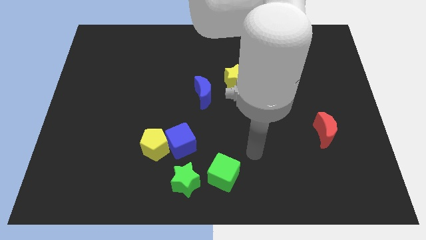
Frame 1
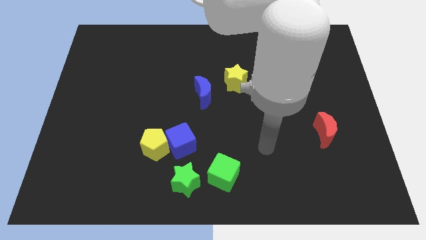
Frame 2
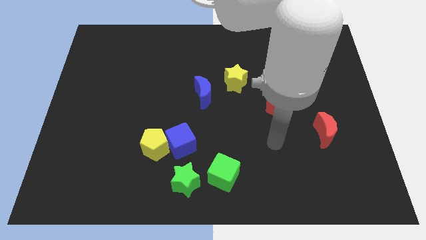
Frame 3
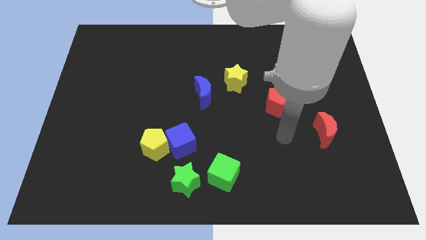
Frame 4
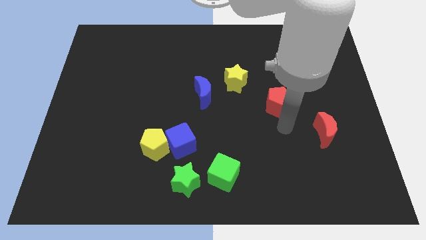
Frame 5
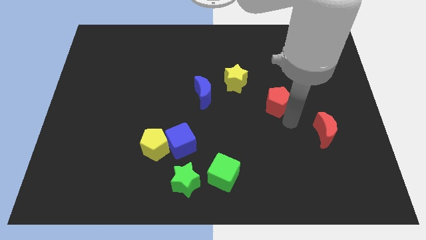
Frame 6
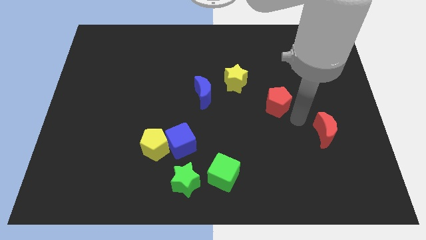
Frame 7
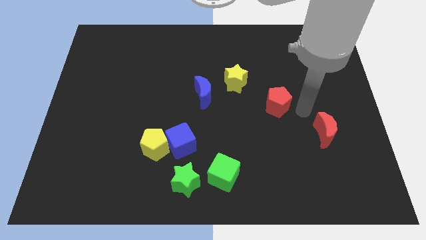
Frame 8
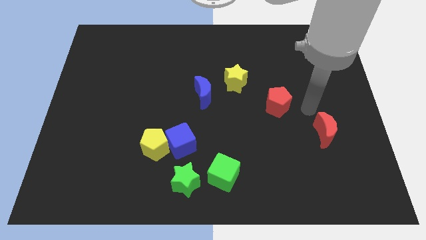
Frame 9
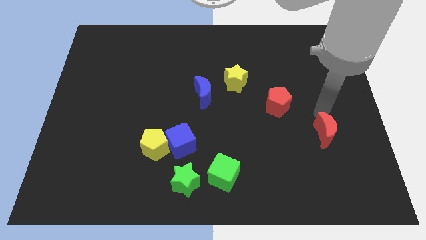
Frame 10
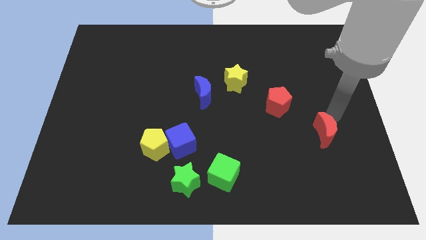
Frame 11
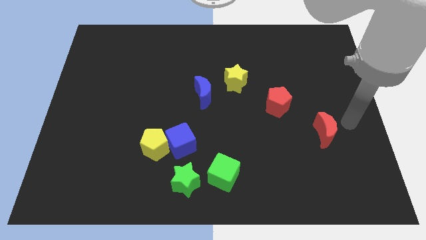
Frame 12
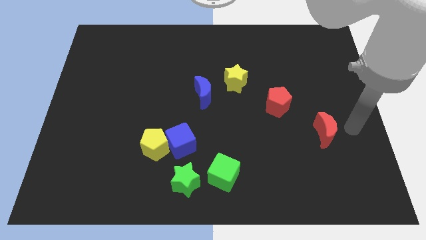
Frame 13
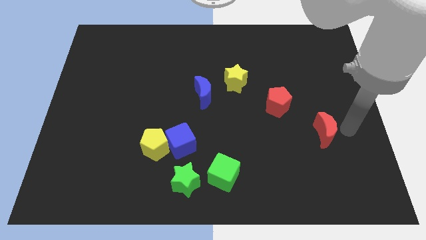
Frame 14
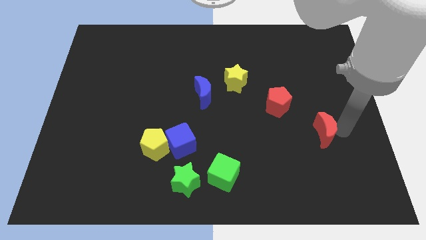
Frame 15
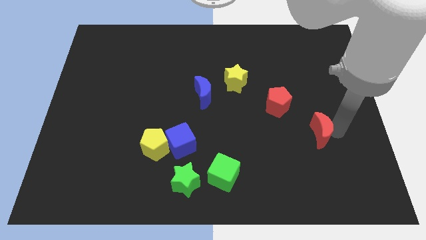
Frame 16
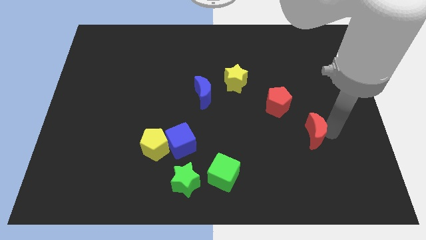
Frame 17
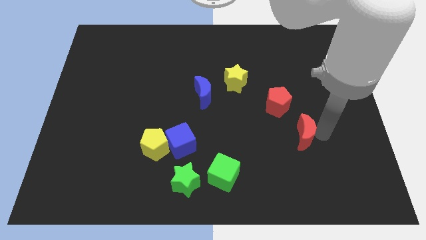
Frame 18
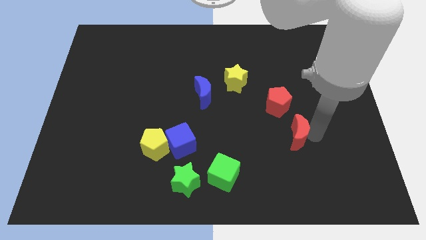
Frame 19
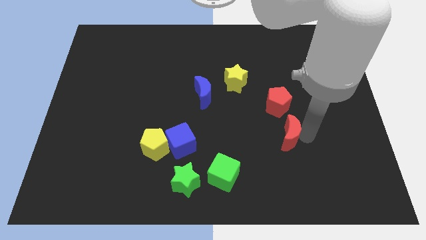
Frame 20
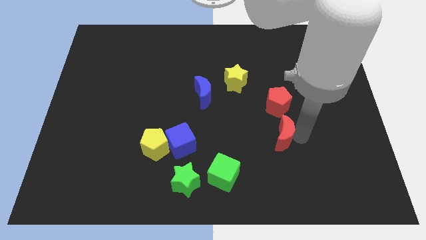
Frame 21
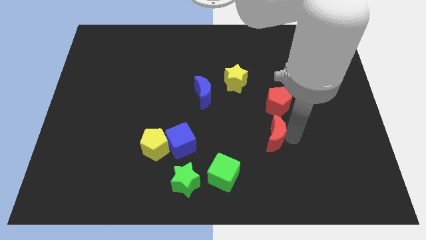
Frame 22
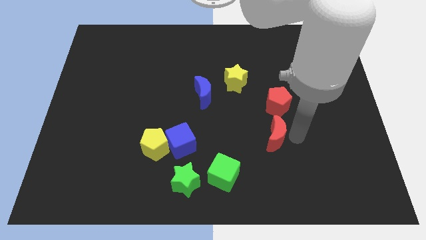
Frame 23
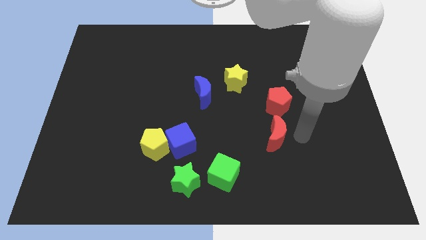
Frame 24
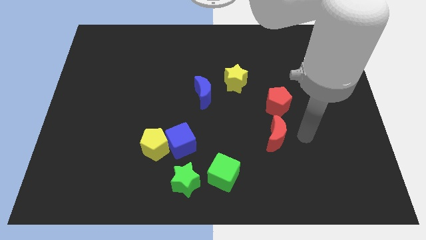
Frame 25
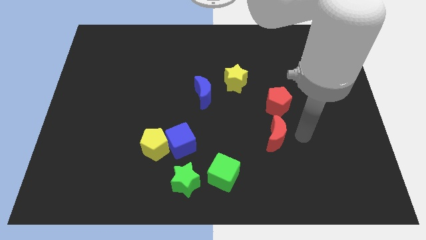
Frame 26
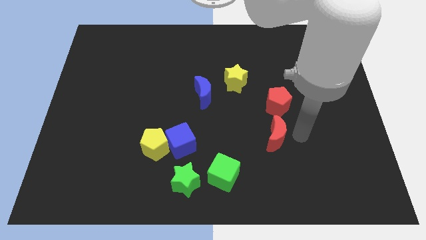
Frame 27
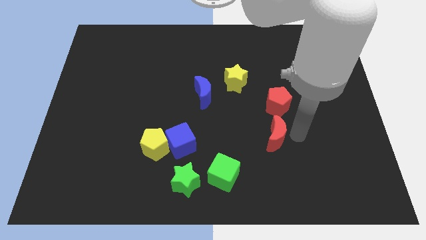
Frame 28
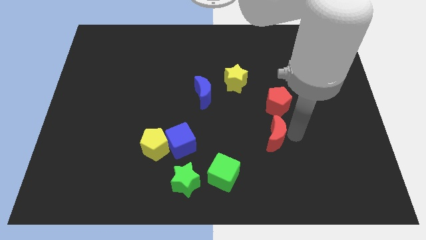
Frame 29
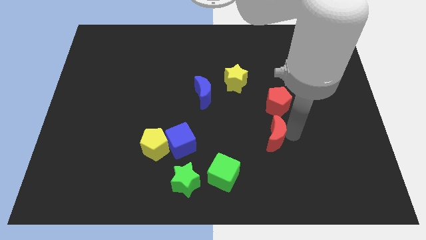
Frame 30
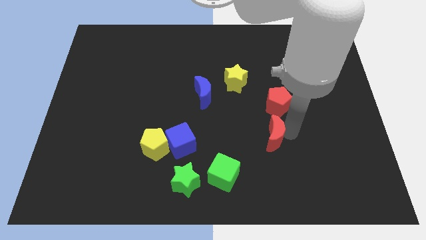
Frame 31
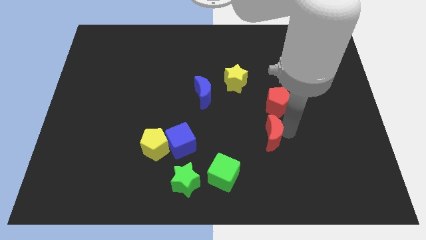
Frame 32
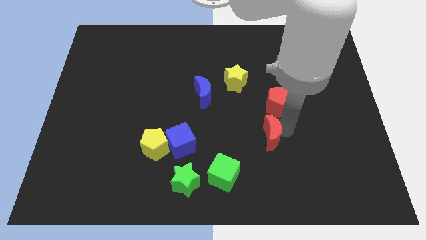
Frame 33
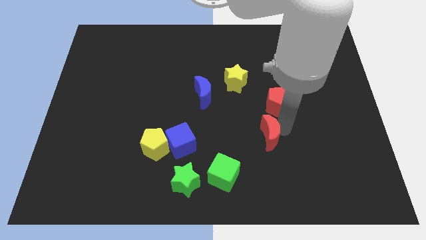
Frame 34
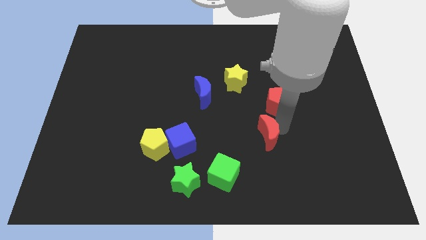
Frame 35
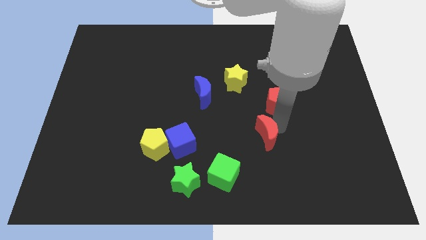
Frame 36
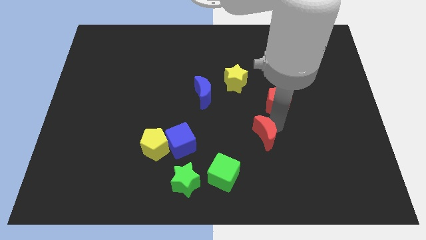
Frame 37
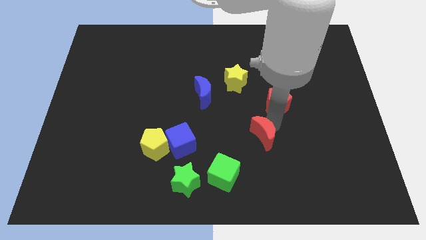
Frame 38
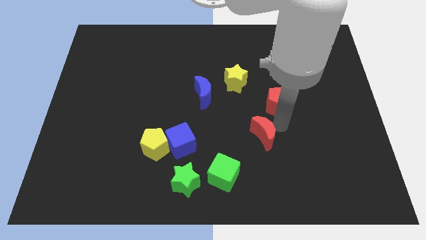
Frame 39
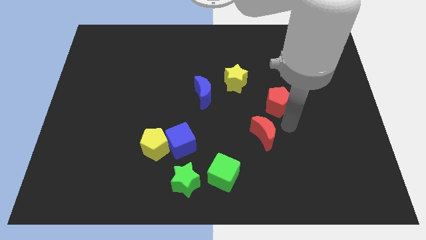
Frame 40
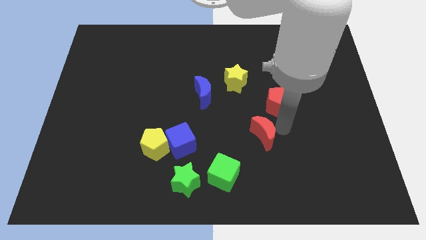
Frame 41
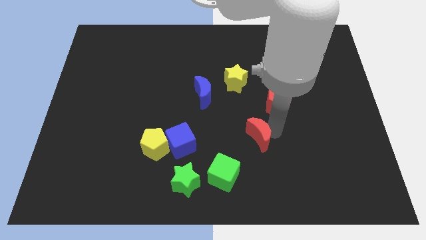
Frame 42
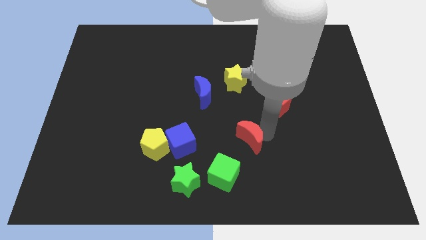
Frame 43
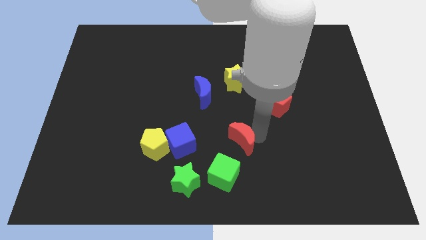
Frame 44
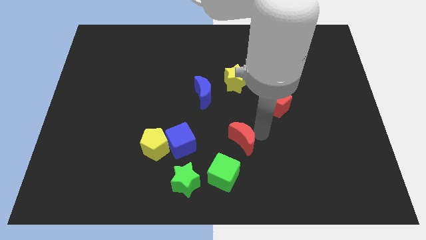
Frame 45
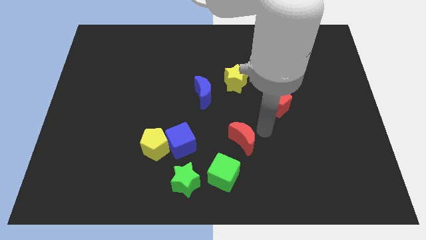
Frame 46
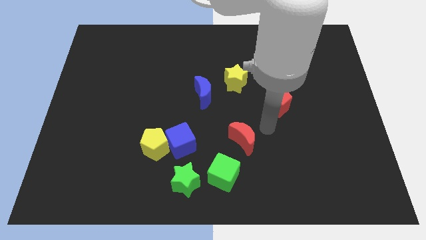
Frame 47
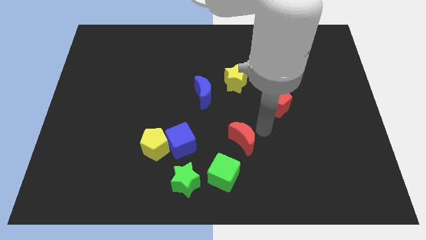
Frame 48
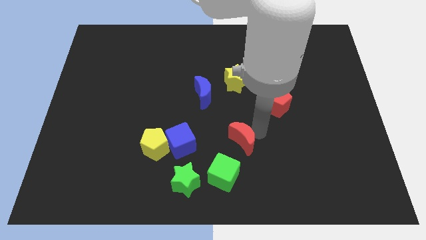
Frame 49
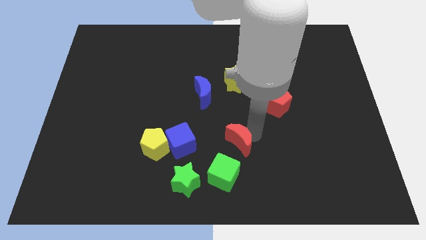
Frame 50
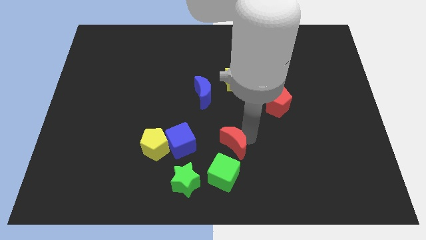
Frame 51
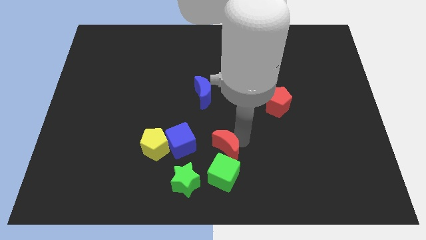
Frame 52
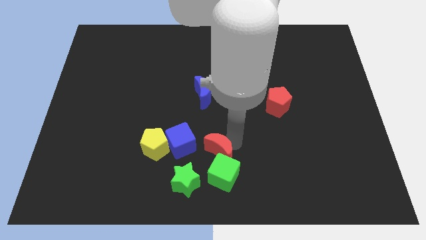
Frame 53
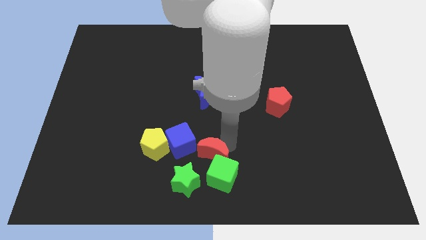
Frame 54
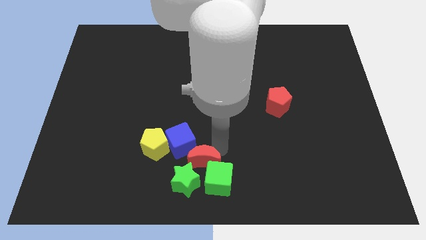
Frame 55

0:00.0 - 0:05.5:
move the red moon next to the green star

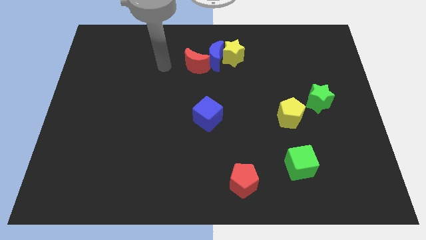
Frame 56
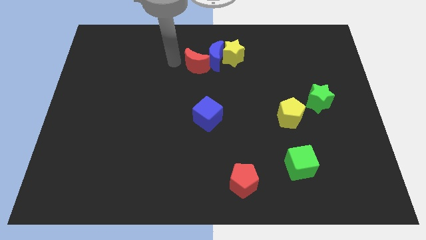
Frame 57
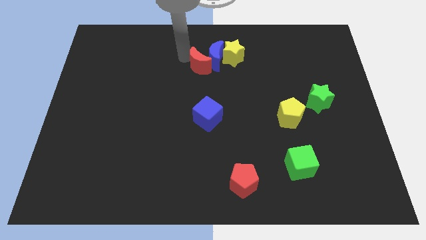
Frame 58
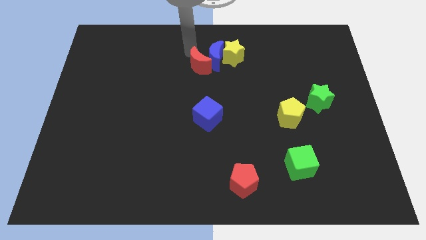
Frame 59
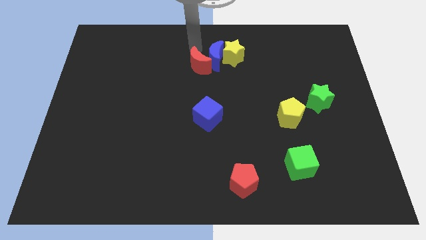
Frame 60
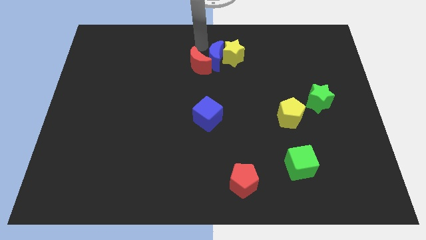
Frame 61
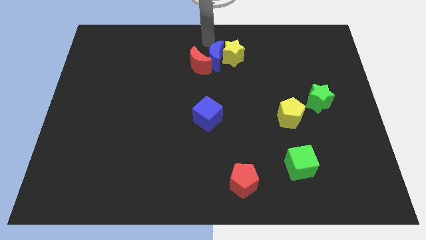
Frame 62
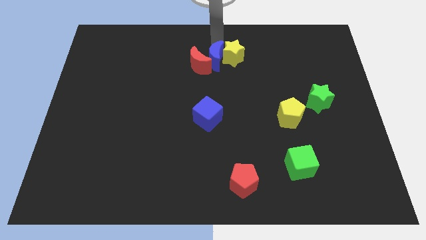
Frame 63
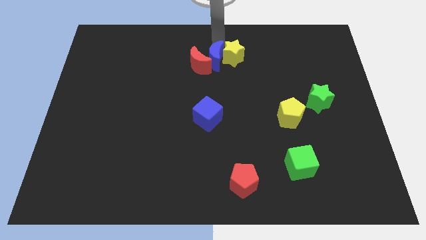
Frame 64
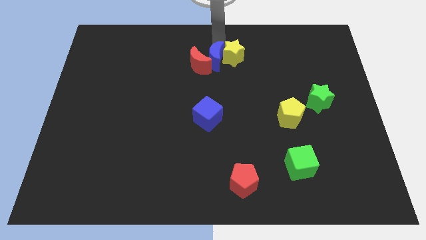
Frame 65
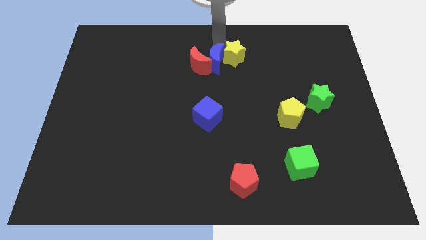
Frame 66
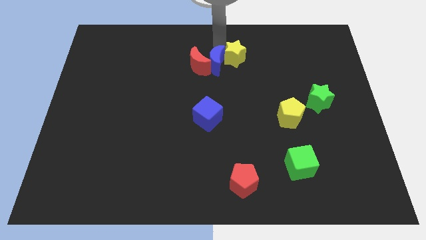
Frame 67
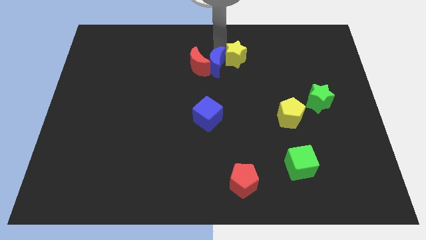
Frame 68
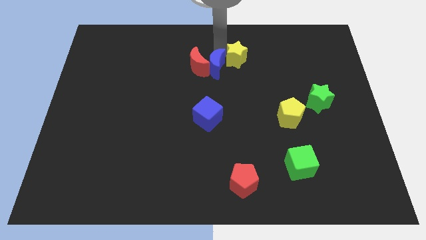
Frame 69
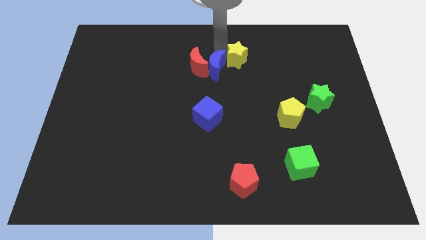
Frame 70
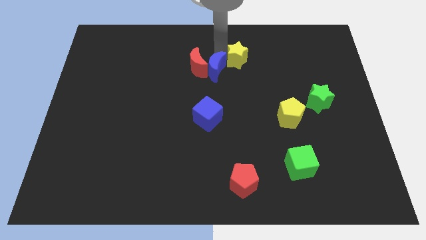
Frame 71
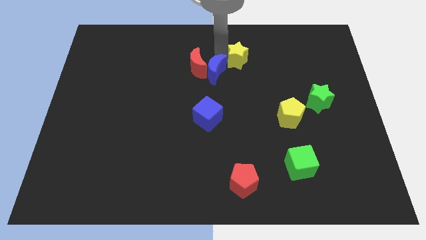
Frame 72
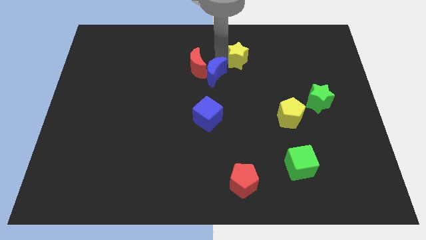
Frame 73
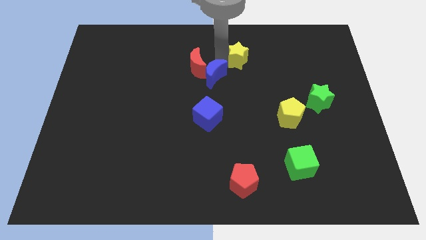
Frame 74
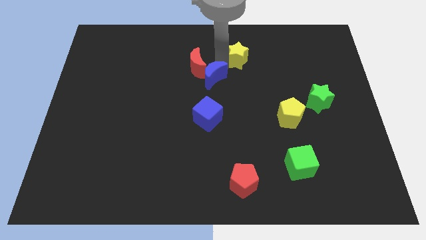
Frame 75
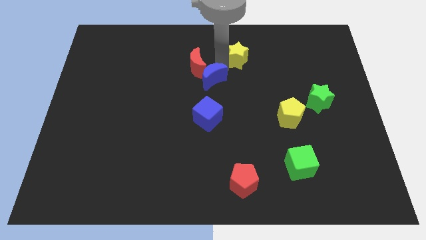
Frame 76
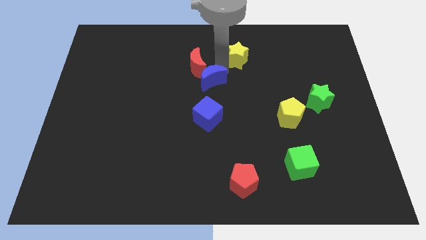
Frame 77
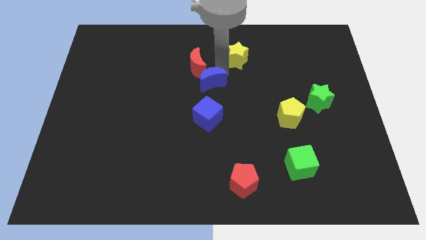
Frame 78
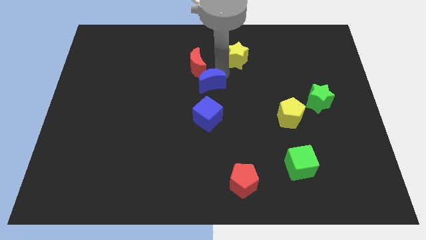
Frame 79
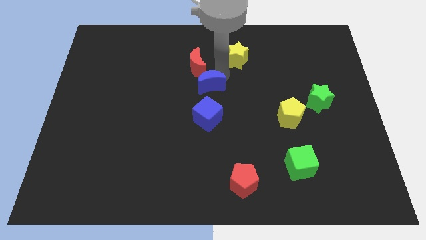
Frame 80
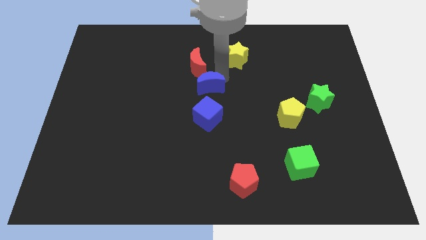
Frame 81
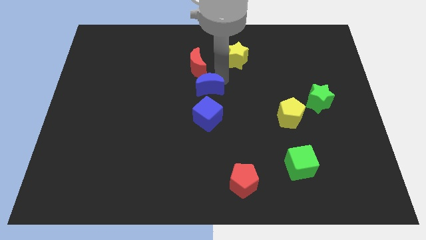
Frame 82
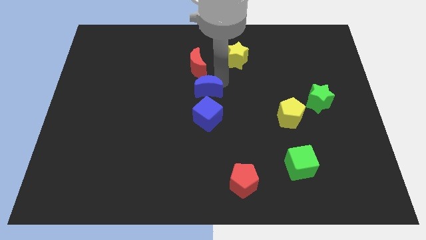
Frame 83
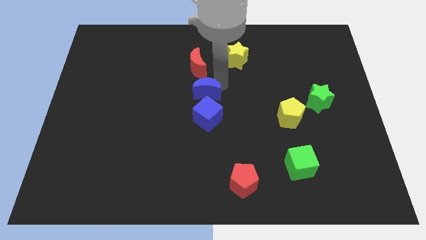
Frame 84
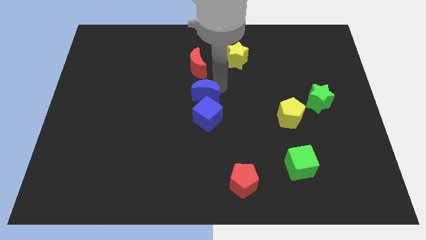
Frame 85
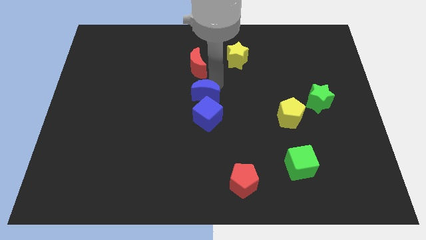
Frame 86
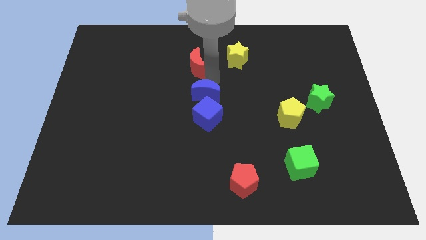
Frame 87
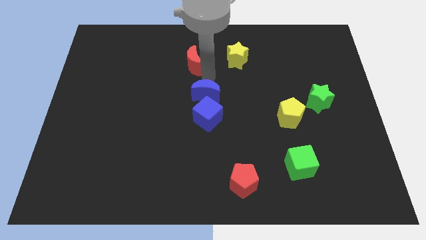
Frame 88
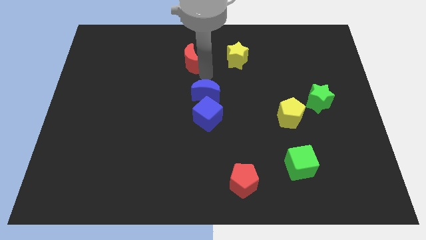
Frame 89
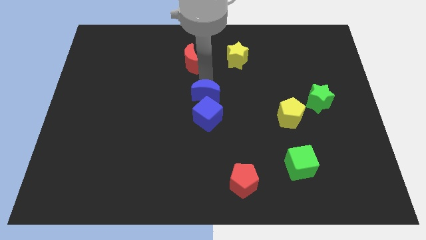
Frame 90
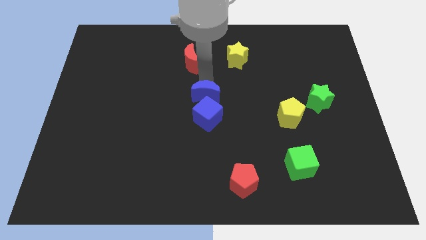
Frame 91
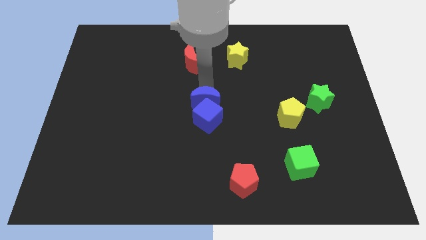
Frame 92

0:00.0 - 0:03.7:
slide the blue moon next to the blue cube
